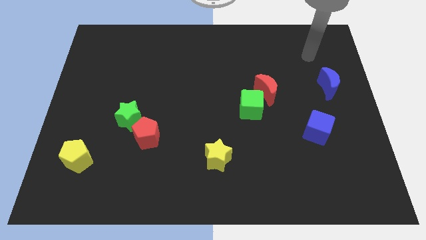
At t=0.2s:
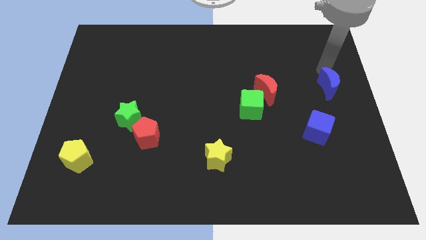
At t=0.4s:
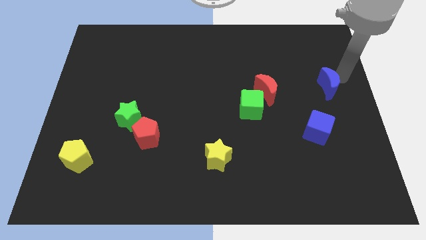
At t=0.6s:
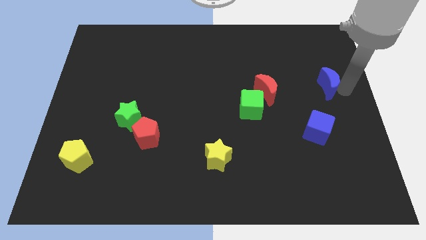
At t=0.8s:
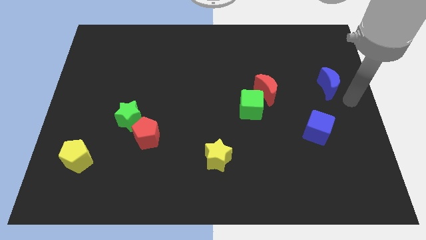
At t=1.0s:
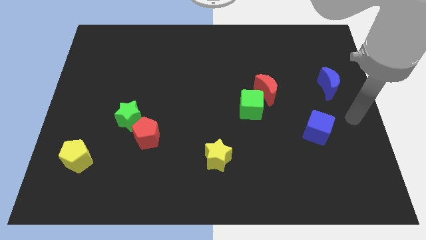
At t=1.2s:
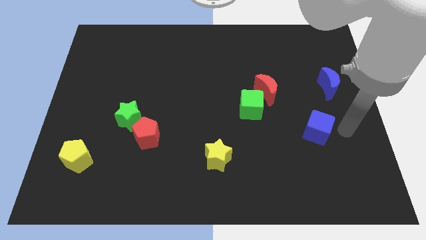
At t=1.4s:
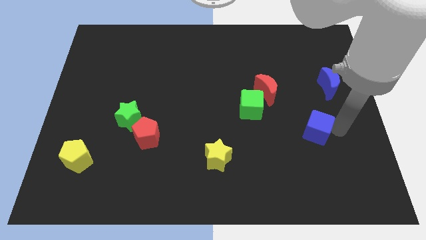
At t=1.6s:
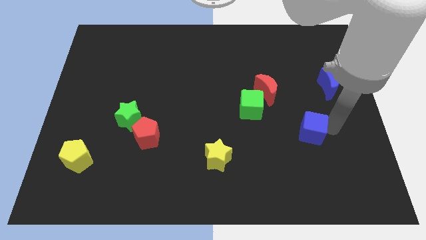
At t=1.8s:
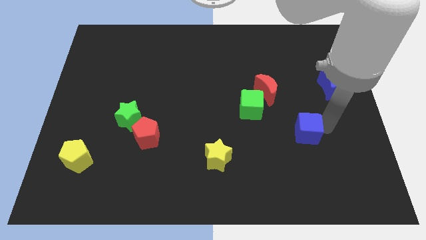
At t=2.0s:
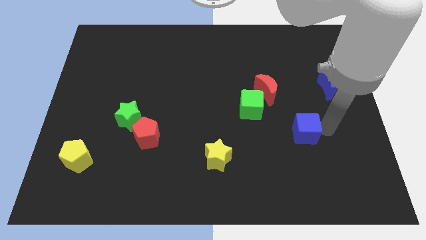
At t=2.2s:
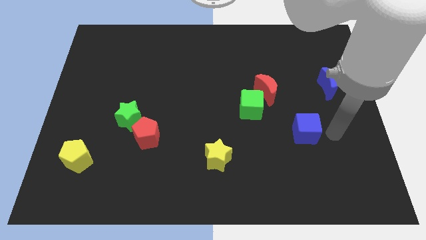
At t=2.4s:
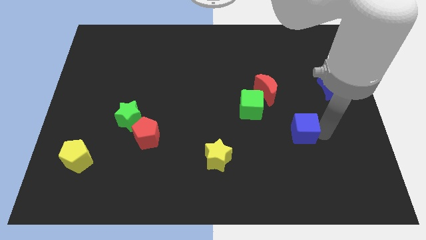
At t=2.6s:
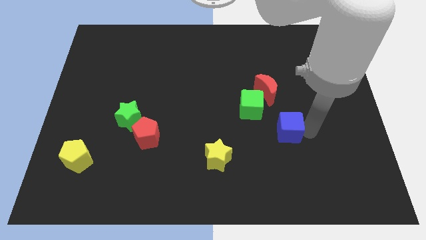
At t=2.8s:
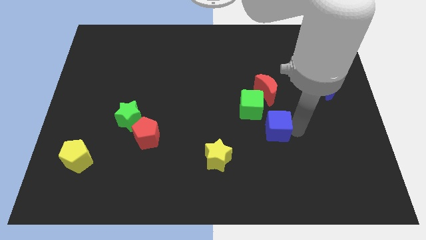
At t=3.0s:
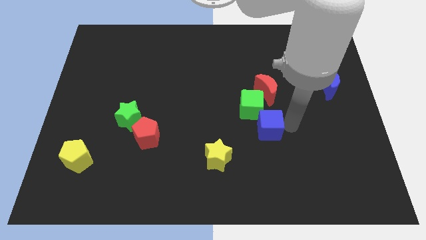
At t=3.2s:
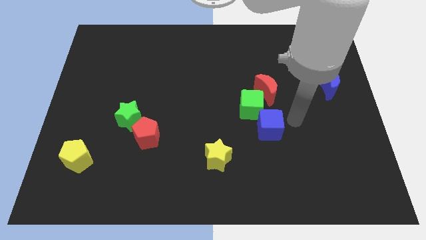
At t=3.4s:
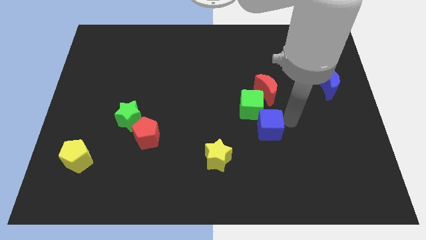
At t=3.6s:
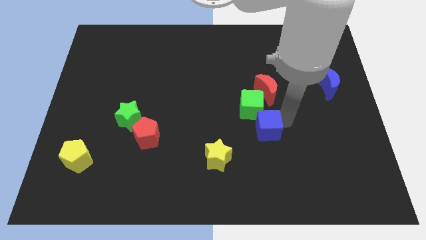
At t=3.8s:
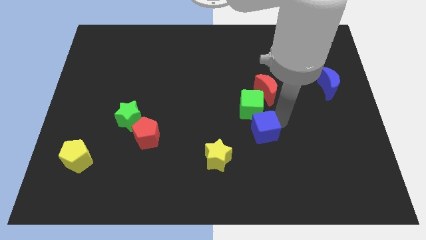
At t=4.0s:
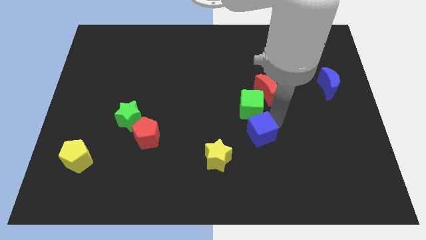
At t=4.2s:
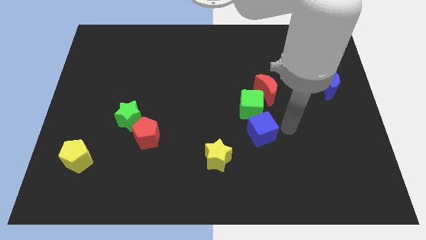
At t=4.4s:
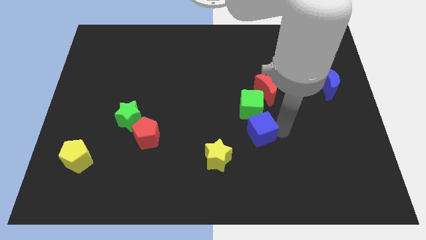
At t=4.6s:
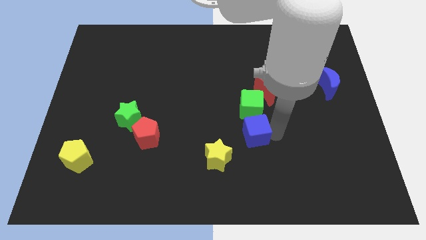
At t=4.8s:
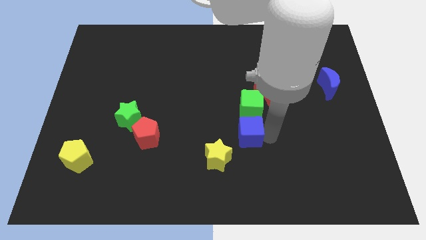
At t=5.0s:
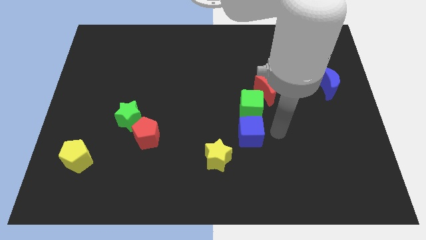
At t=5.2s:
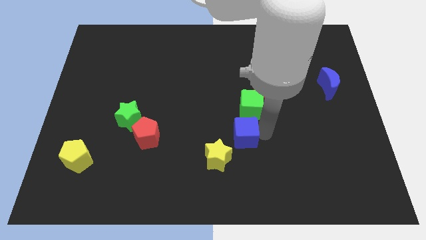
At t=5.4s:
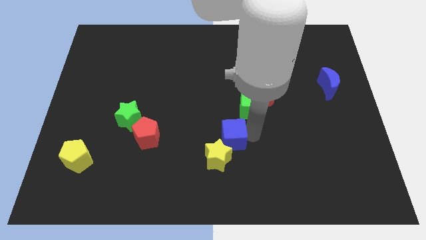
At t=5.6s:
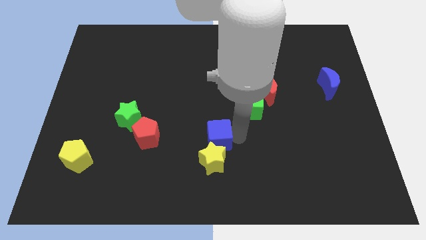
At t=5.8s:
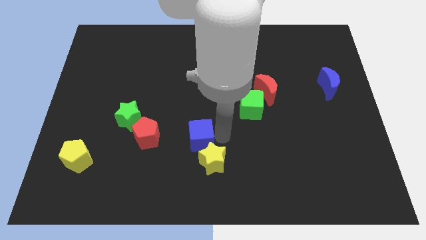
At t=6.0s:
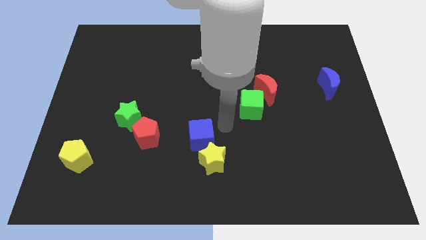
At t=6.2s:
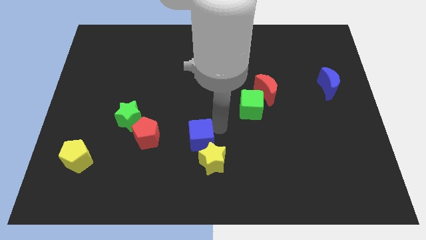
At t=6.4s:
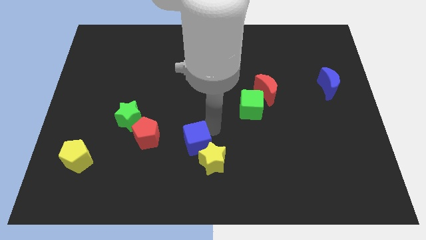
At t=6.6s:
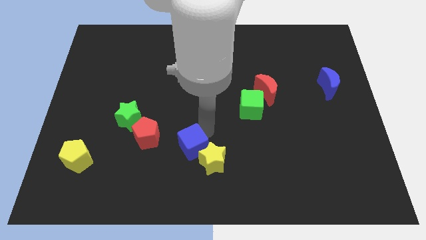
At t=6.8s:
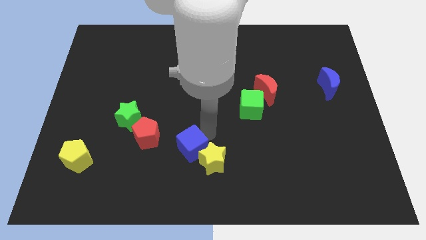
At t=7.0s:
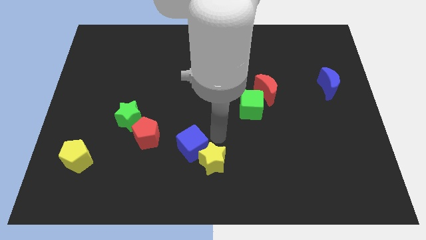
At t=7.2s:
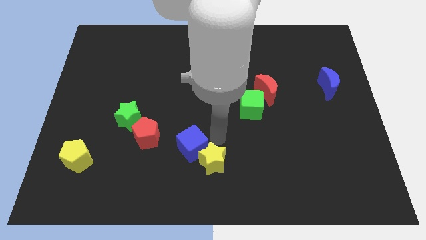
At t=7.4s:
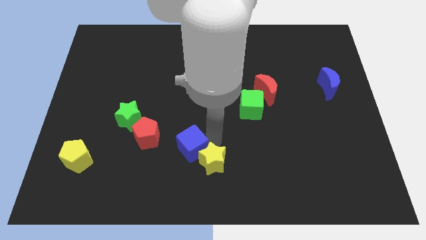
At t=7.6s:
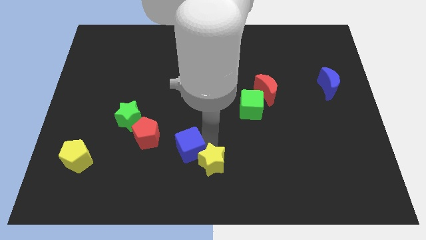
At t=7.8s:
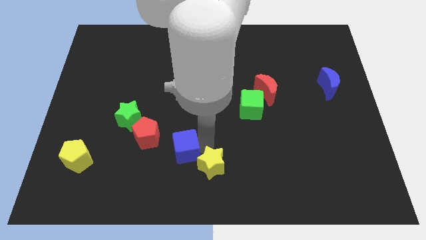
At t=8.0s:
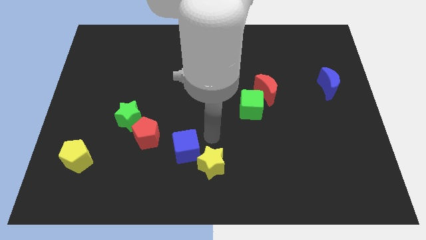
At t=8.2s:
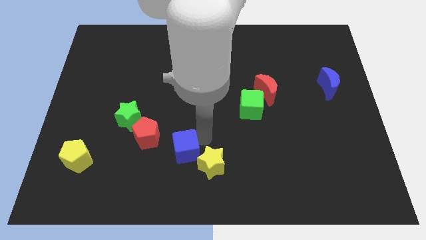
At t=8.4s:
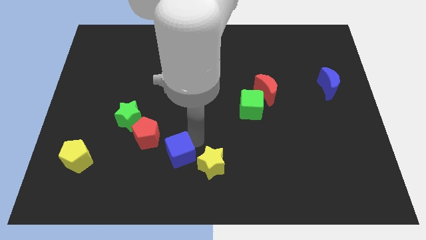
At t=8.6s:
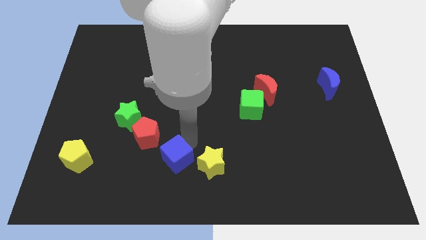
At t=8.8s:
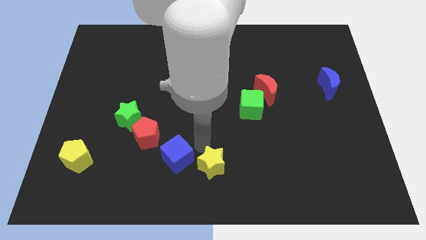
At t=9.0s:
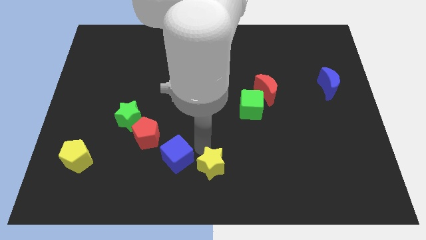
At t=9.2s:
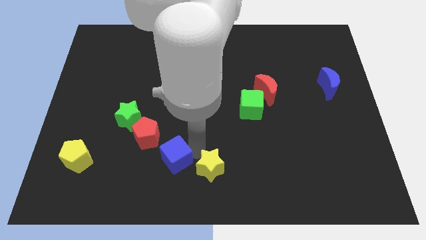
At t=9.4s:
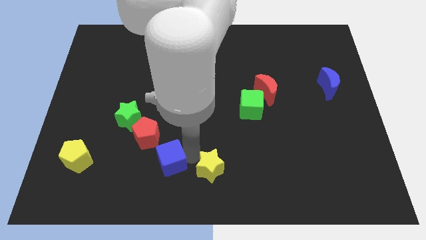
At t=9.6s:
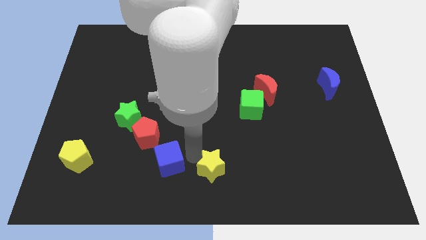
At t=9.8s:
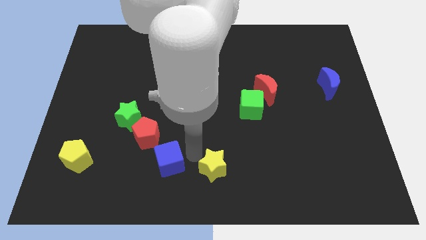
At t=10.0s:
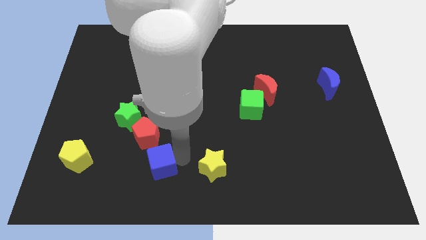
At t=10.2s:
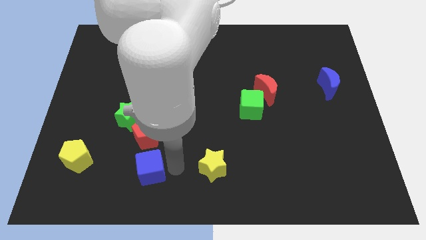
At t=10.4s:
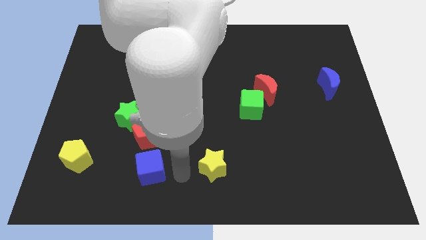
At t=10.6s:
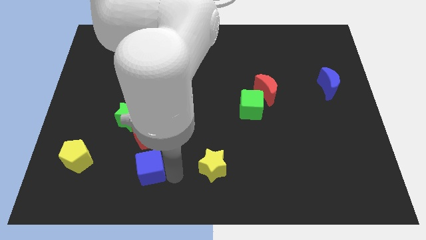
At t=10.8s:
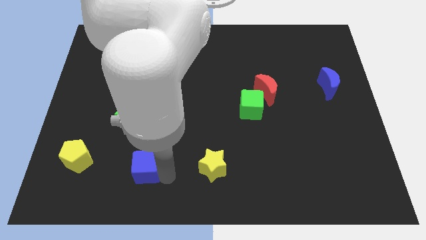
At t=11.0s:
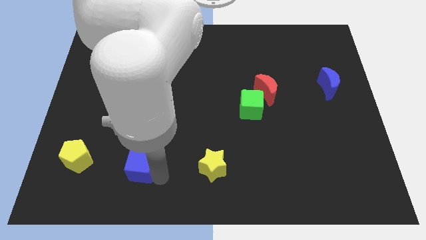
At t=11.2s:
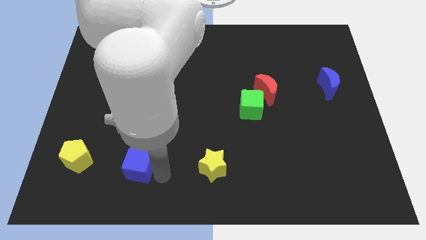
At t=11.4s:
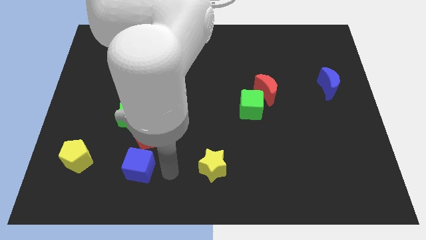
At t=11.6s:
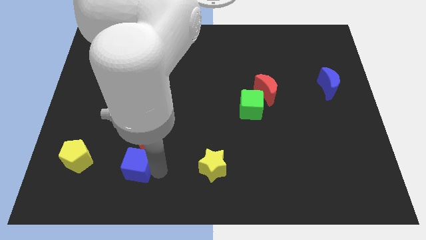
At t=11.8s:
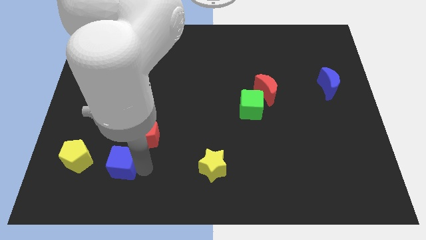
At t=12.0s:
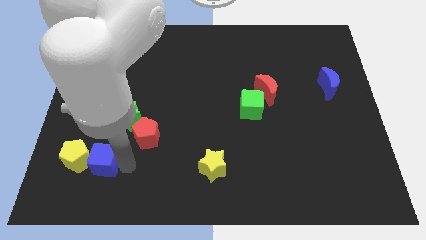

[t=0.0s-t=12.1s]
push the blue cube towards the yellow pentagon

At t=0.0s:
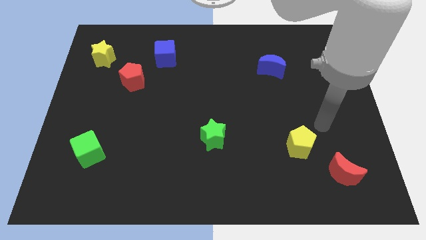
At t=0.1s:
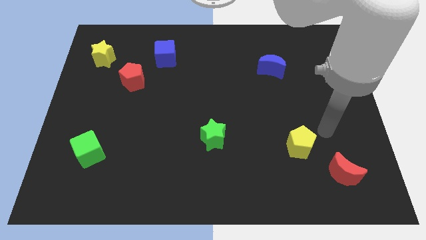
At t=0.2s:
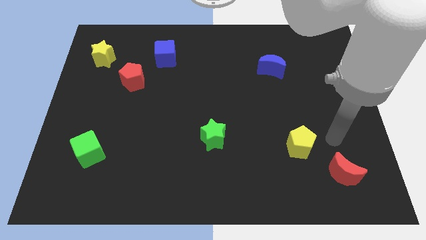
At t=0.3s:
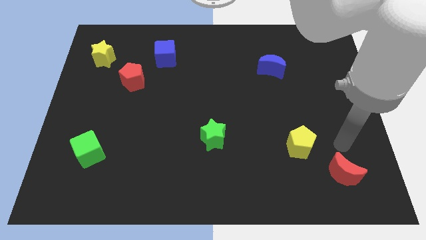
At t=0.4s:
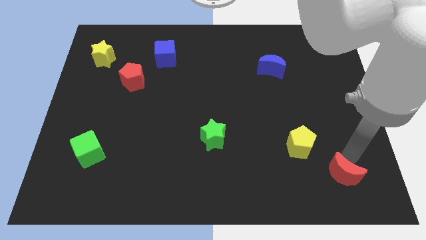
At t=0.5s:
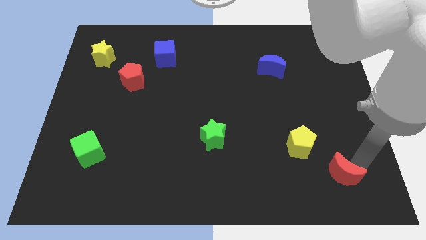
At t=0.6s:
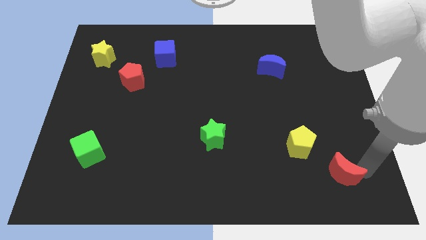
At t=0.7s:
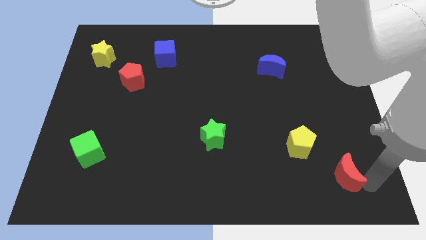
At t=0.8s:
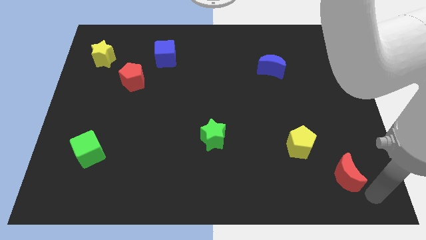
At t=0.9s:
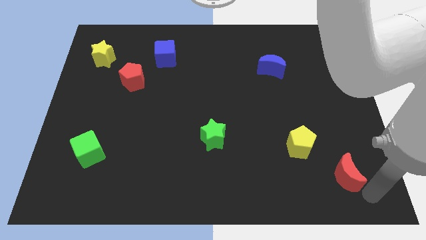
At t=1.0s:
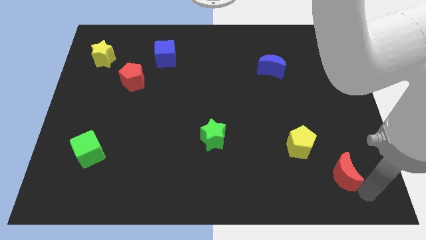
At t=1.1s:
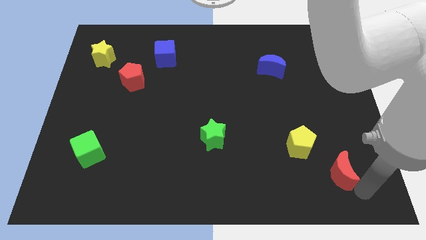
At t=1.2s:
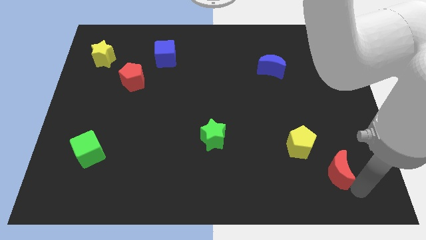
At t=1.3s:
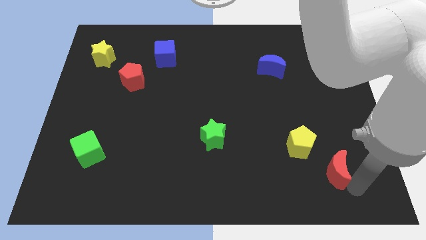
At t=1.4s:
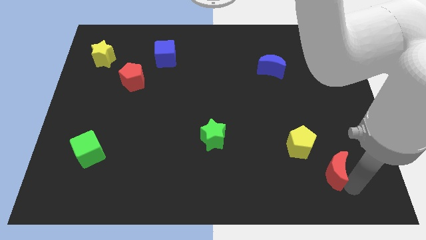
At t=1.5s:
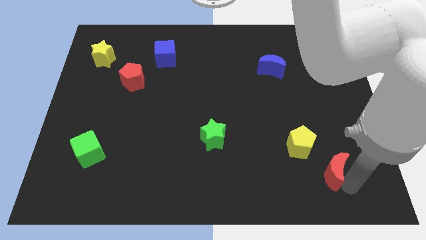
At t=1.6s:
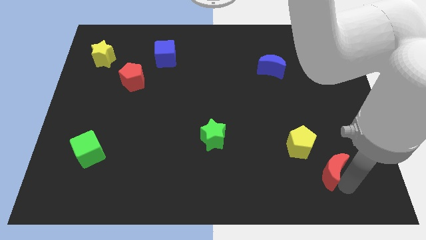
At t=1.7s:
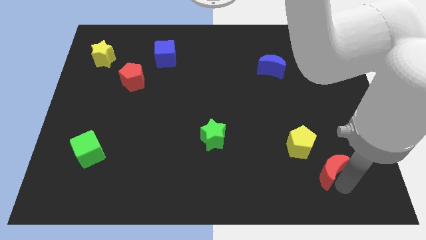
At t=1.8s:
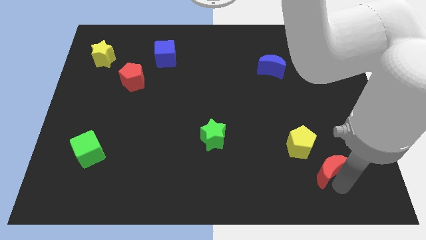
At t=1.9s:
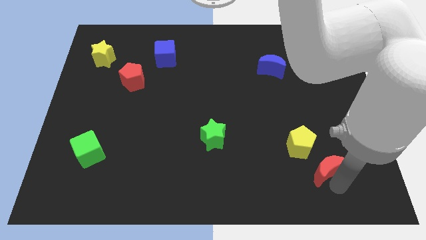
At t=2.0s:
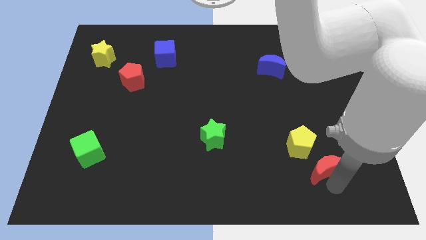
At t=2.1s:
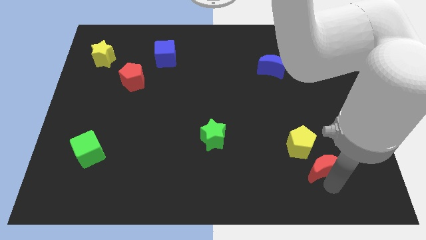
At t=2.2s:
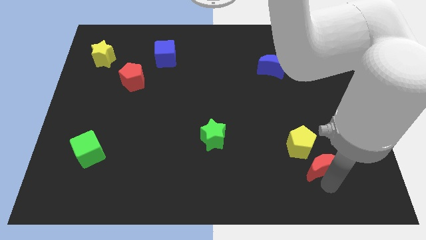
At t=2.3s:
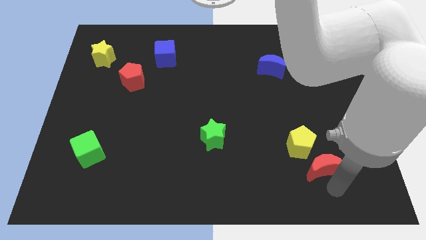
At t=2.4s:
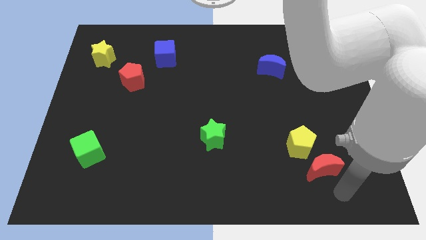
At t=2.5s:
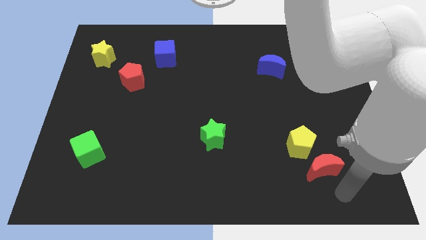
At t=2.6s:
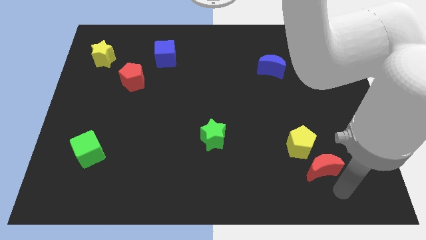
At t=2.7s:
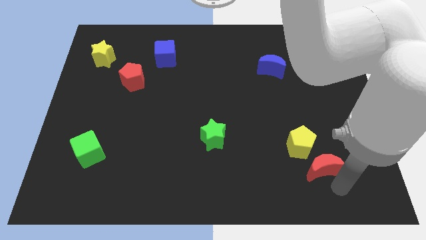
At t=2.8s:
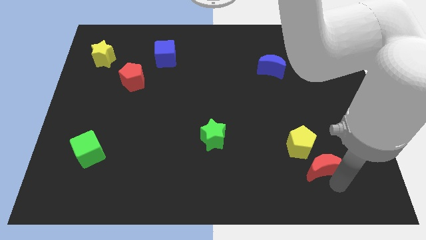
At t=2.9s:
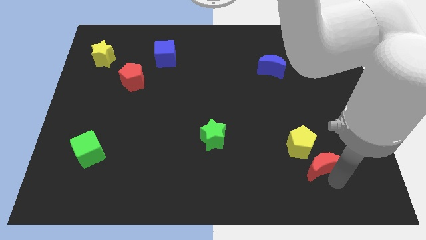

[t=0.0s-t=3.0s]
put the red moon close to the yellow pentagon
